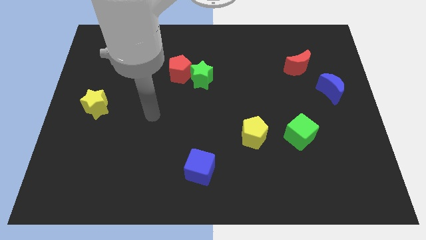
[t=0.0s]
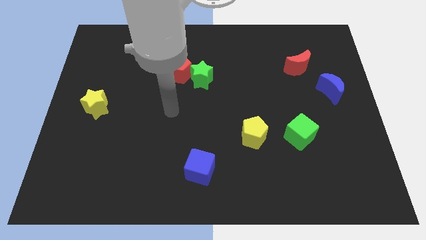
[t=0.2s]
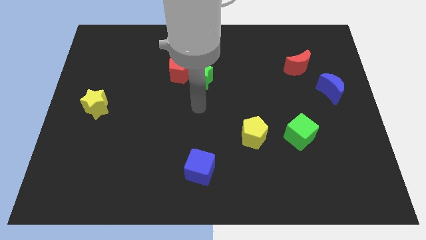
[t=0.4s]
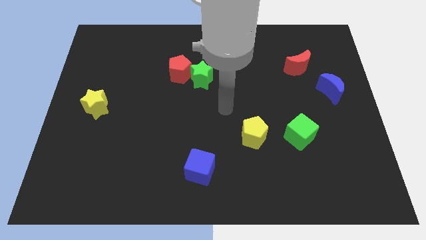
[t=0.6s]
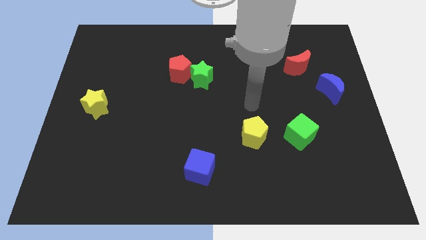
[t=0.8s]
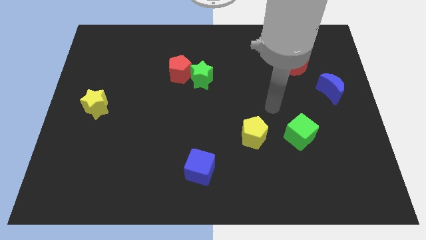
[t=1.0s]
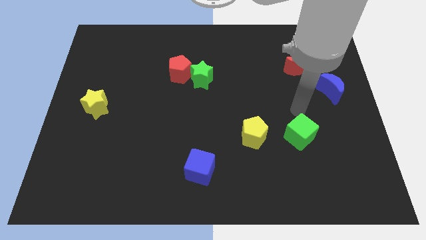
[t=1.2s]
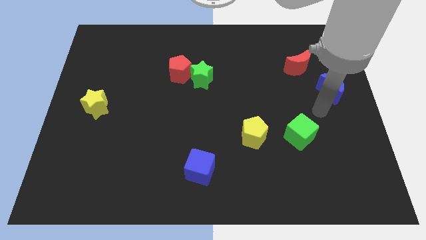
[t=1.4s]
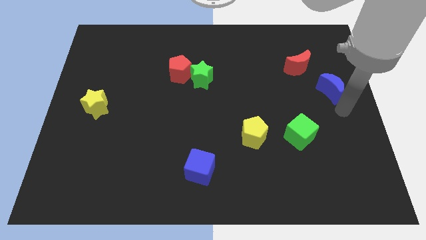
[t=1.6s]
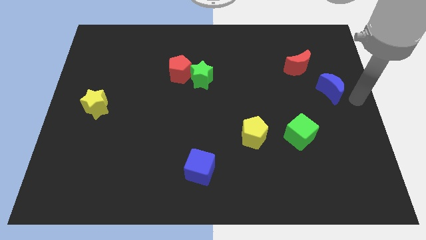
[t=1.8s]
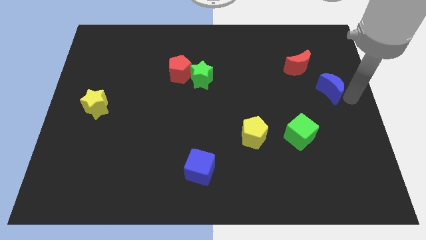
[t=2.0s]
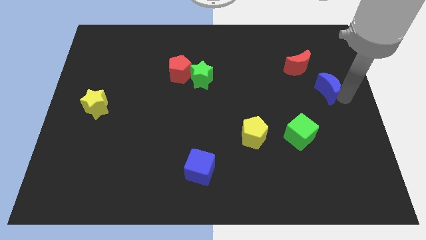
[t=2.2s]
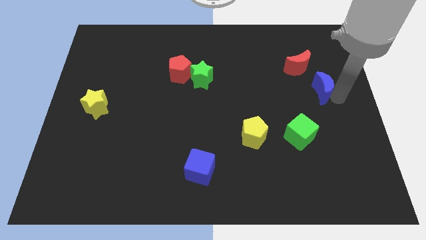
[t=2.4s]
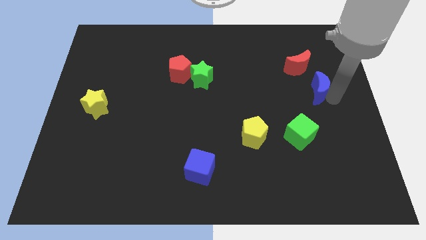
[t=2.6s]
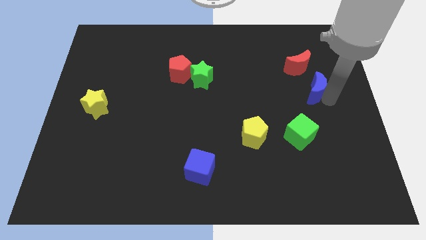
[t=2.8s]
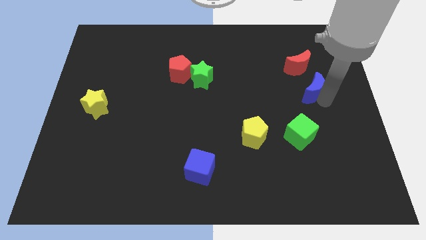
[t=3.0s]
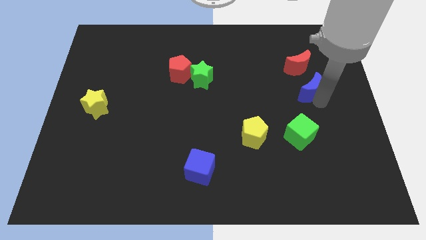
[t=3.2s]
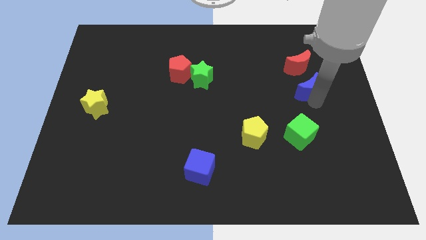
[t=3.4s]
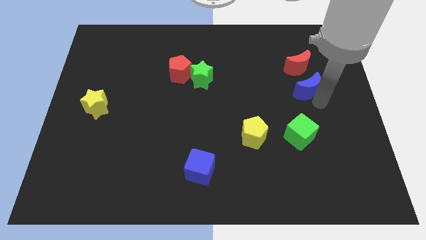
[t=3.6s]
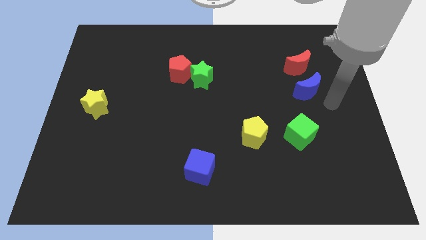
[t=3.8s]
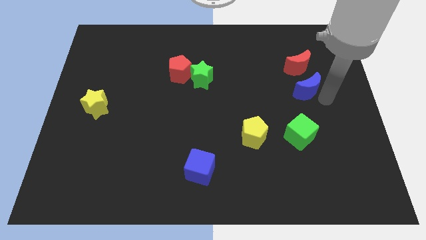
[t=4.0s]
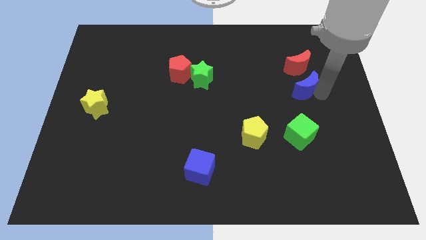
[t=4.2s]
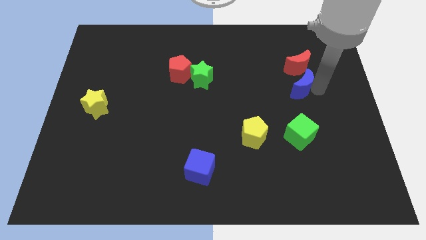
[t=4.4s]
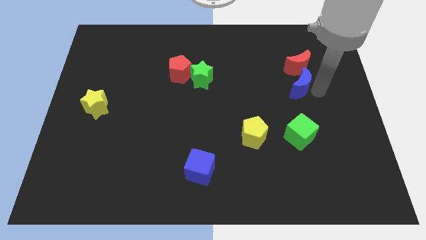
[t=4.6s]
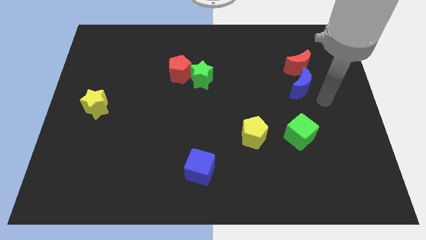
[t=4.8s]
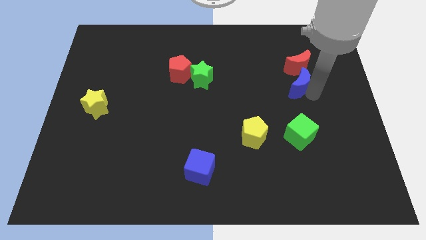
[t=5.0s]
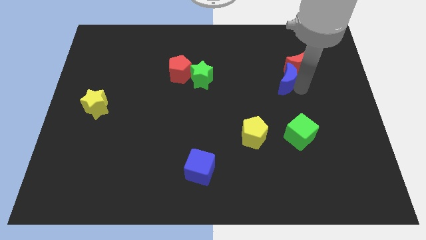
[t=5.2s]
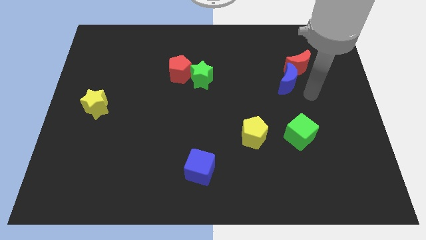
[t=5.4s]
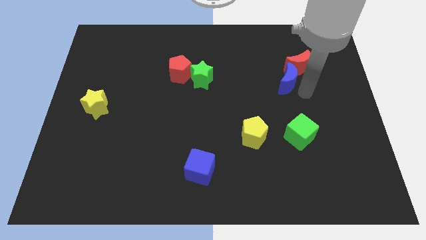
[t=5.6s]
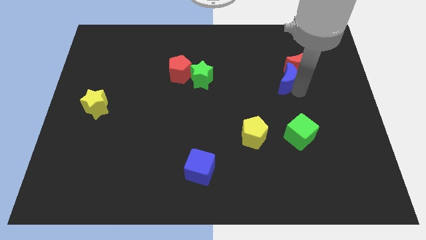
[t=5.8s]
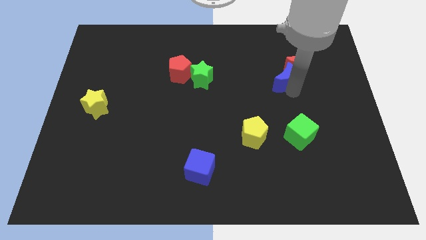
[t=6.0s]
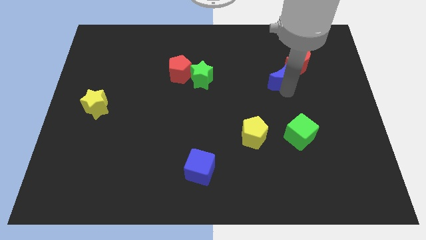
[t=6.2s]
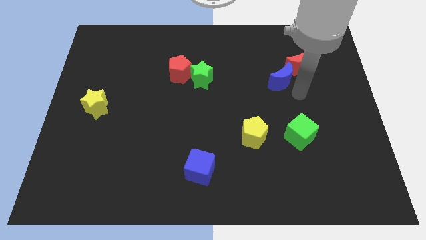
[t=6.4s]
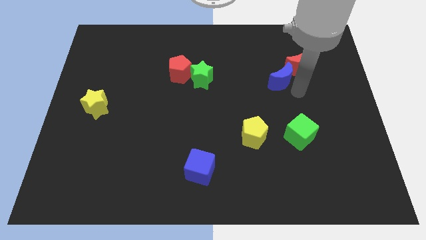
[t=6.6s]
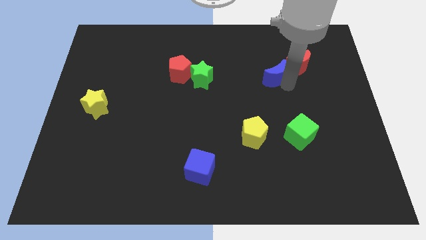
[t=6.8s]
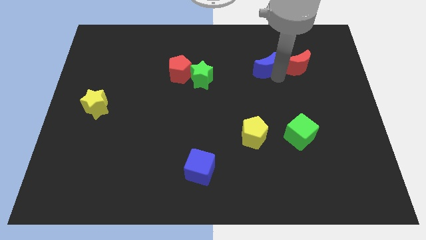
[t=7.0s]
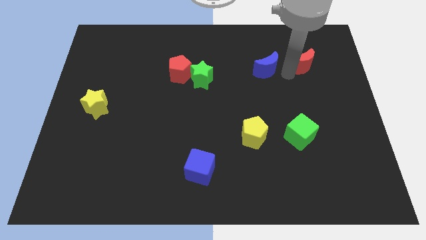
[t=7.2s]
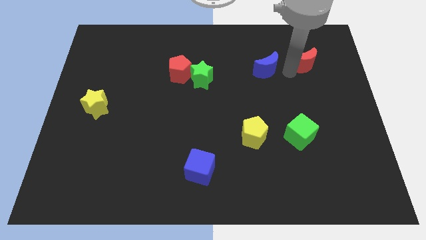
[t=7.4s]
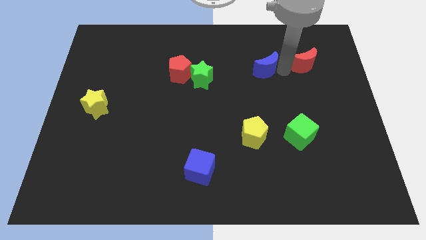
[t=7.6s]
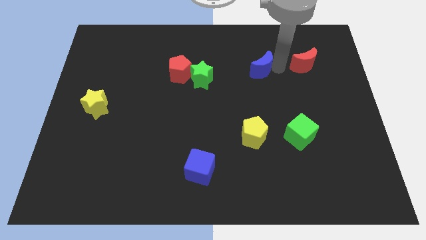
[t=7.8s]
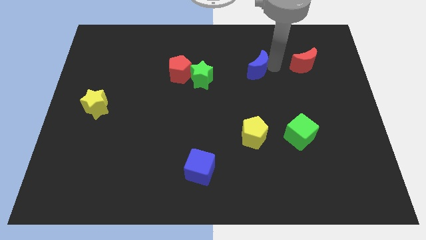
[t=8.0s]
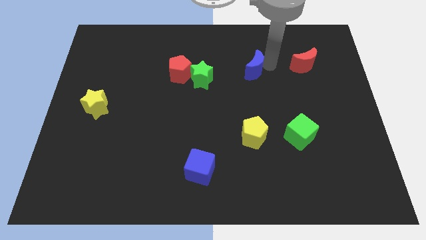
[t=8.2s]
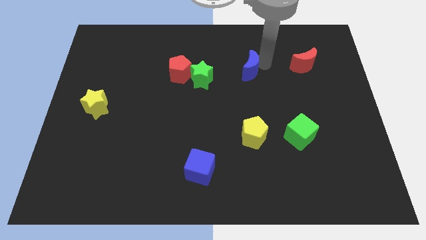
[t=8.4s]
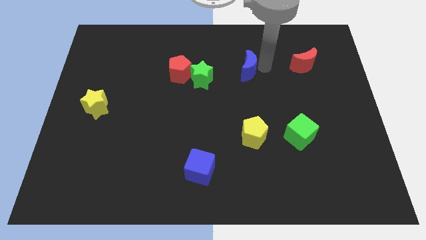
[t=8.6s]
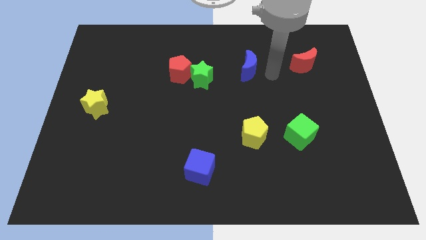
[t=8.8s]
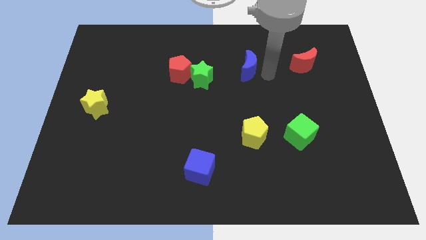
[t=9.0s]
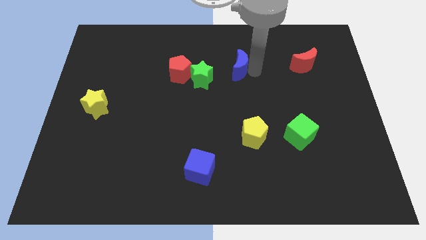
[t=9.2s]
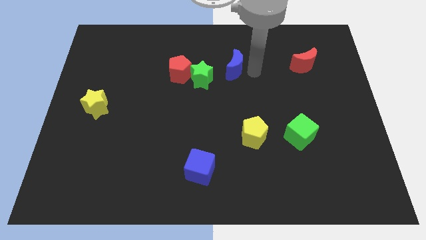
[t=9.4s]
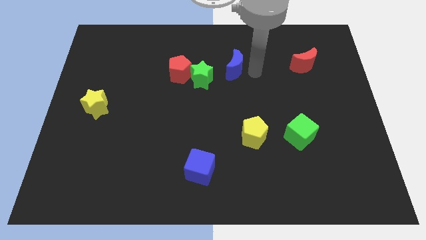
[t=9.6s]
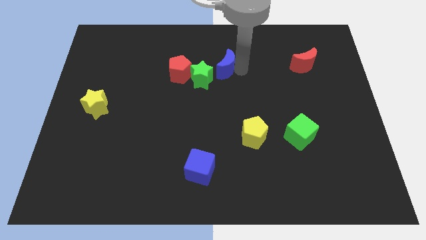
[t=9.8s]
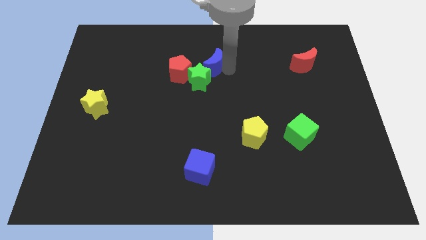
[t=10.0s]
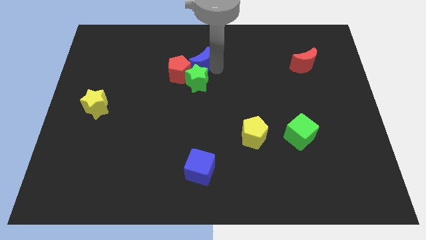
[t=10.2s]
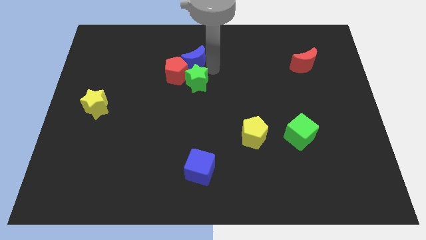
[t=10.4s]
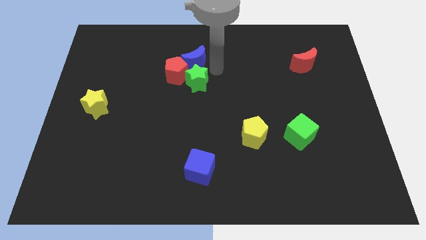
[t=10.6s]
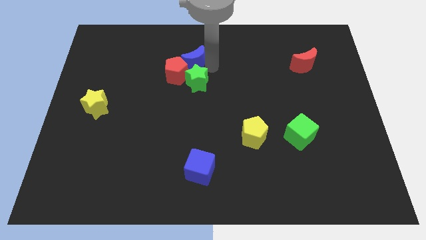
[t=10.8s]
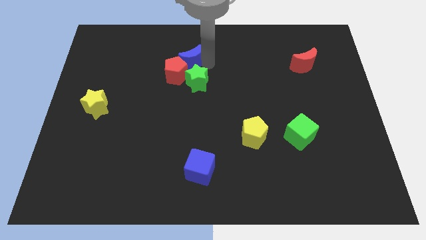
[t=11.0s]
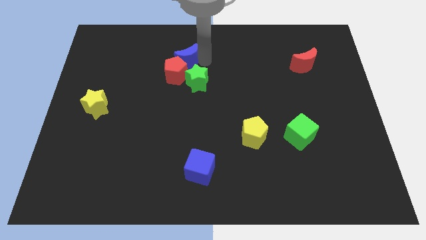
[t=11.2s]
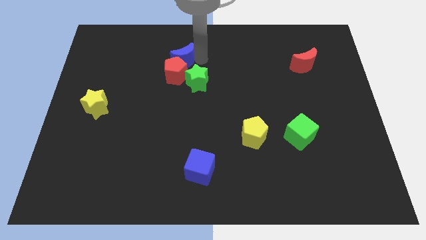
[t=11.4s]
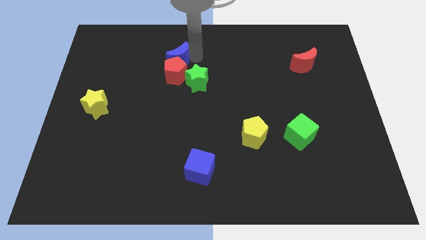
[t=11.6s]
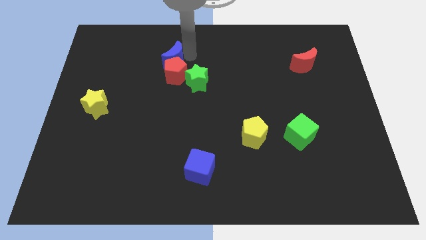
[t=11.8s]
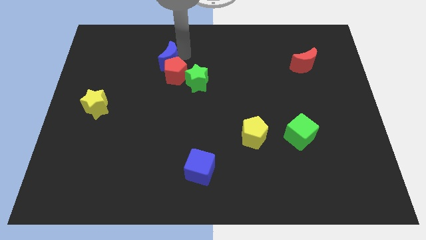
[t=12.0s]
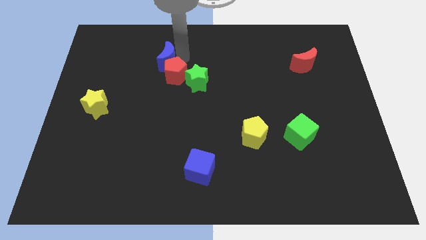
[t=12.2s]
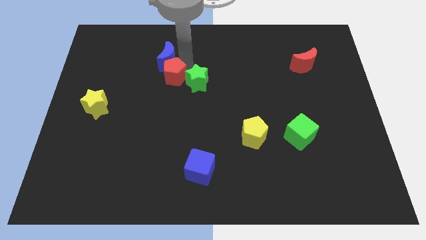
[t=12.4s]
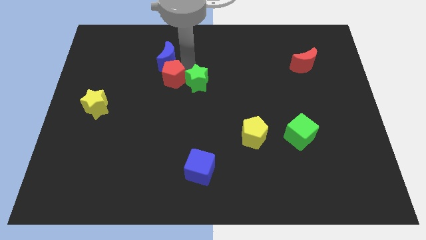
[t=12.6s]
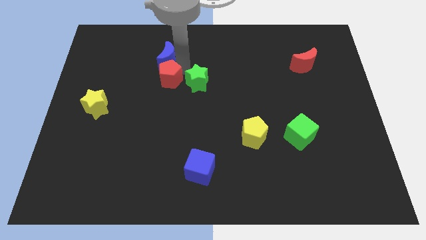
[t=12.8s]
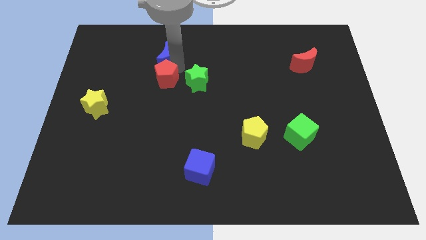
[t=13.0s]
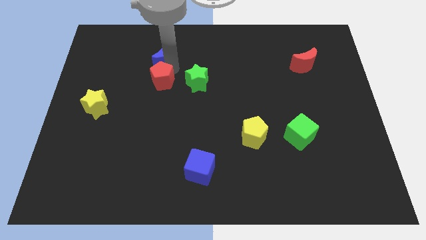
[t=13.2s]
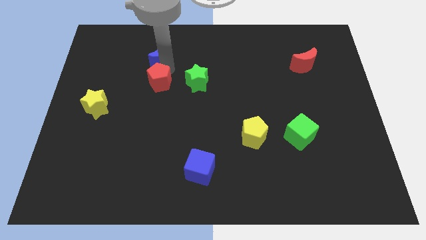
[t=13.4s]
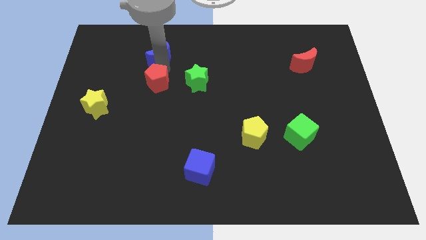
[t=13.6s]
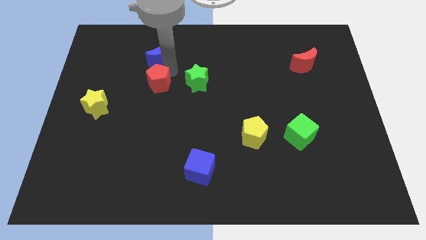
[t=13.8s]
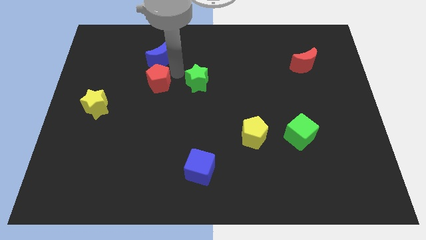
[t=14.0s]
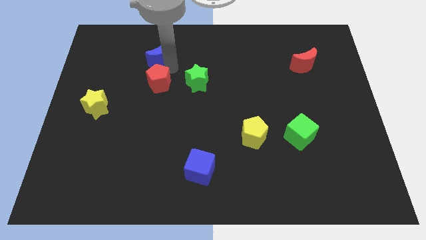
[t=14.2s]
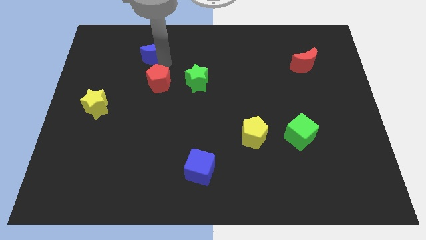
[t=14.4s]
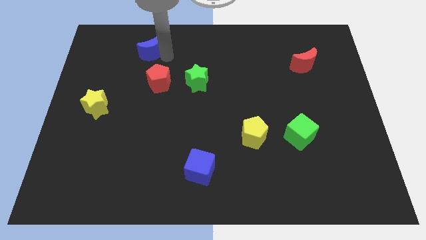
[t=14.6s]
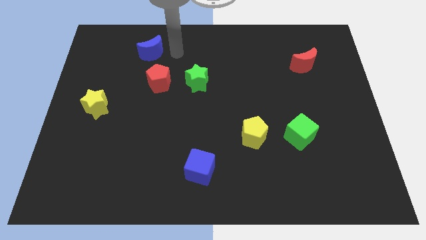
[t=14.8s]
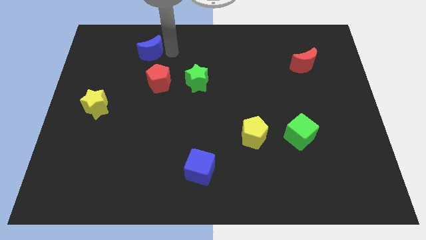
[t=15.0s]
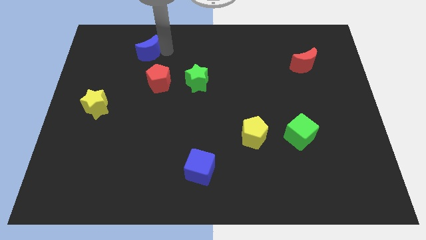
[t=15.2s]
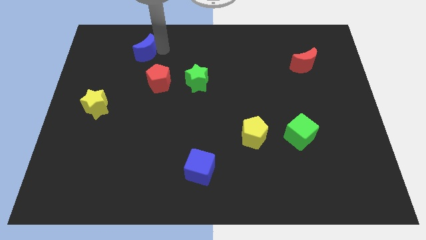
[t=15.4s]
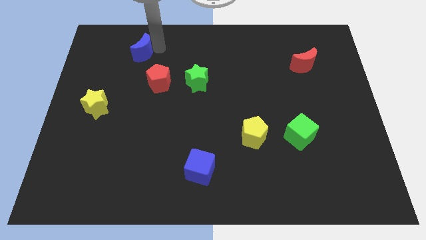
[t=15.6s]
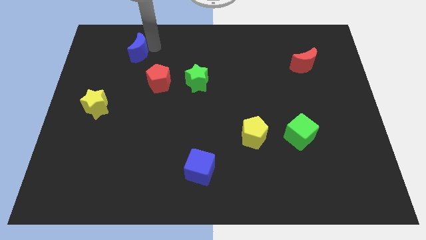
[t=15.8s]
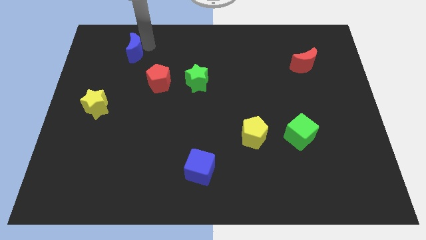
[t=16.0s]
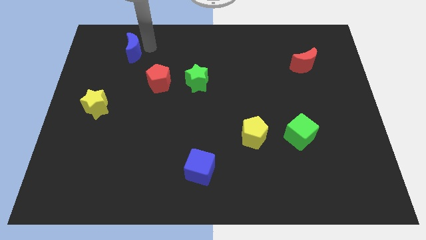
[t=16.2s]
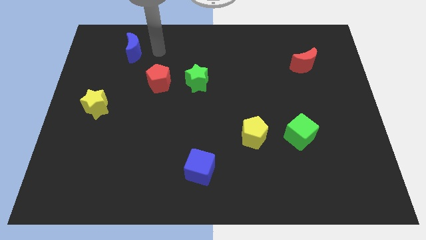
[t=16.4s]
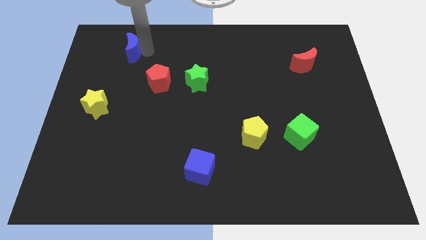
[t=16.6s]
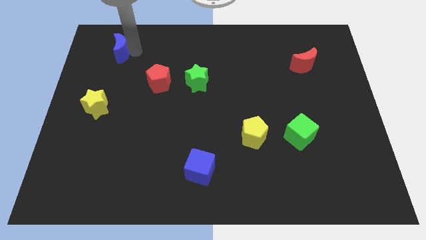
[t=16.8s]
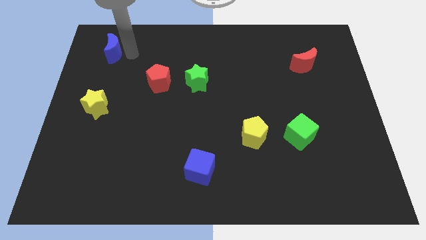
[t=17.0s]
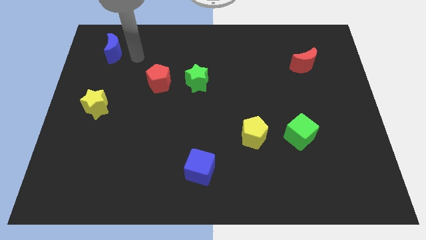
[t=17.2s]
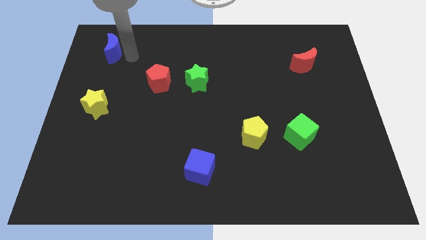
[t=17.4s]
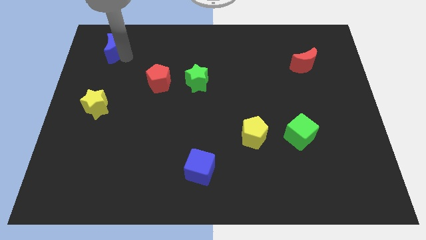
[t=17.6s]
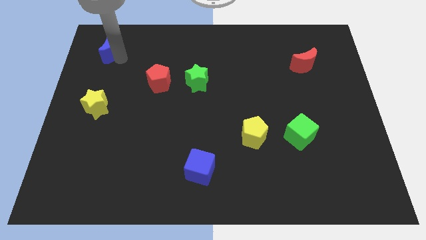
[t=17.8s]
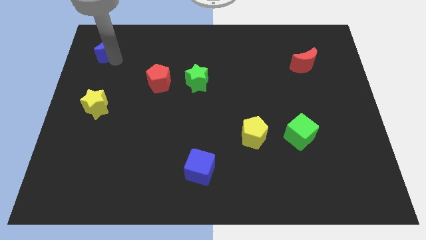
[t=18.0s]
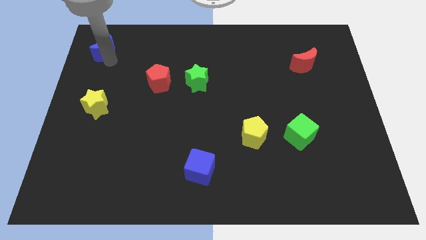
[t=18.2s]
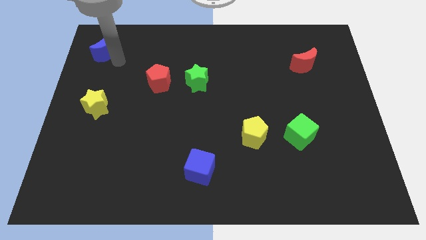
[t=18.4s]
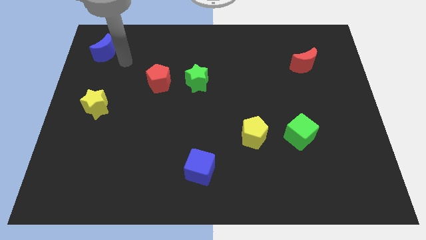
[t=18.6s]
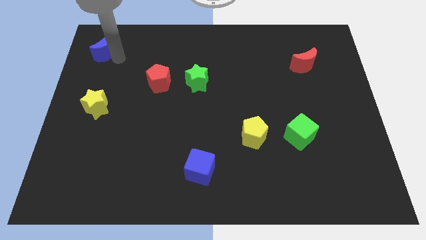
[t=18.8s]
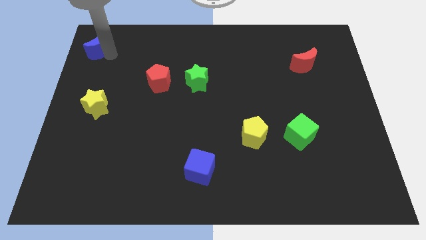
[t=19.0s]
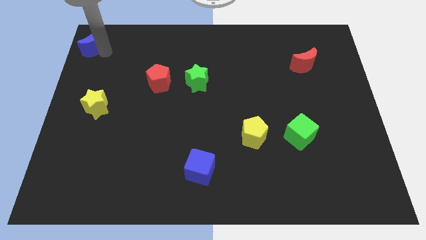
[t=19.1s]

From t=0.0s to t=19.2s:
put the blue moon to the top left of the board
